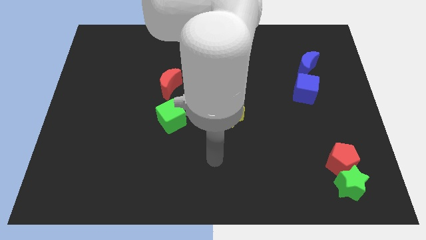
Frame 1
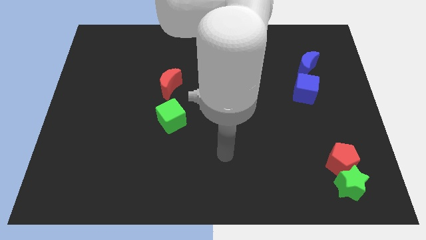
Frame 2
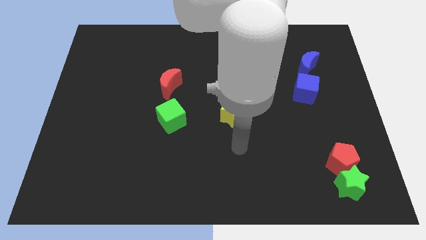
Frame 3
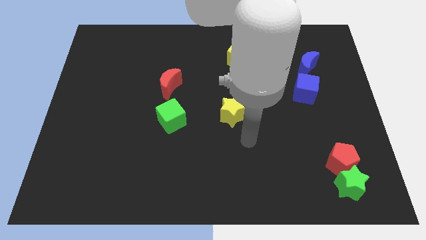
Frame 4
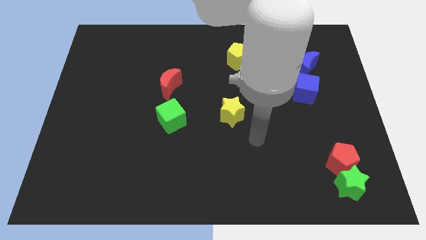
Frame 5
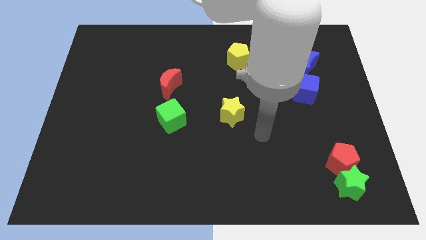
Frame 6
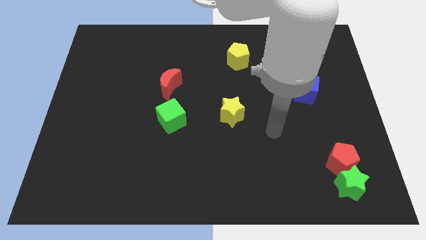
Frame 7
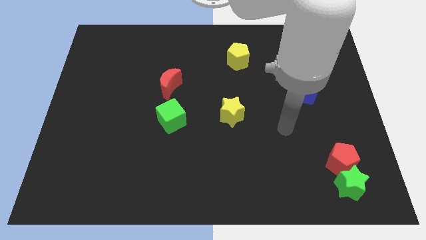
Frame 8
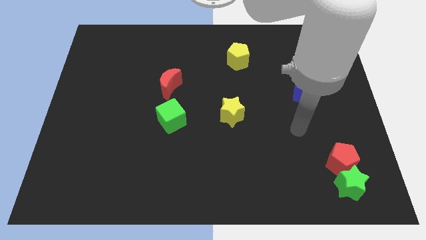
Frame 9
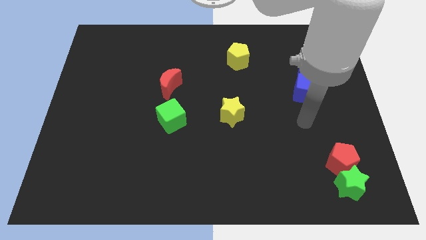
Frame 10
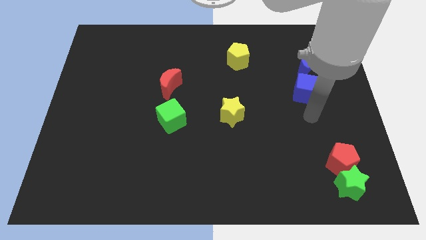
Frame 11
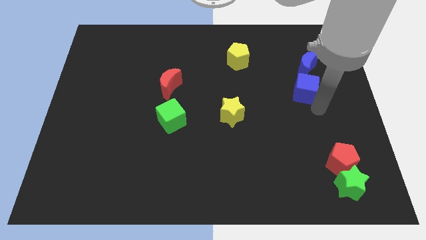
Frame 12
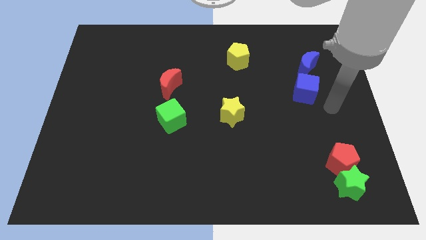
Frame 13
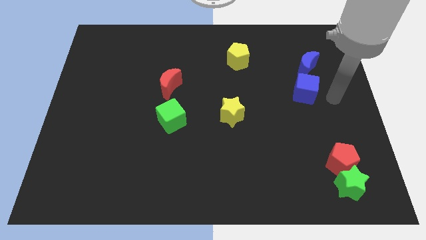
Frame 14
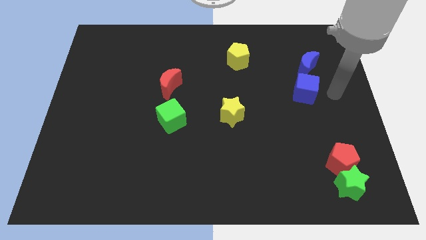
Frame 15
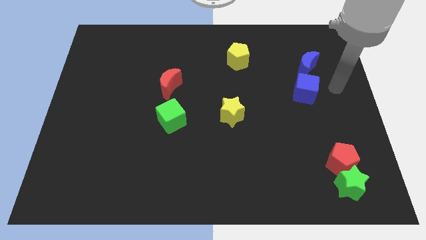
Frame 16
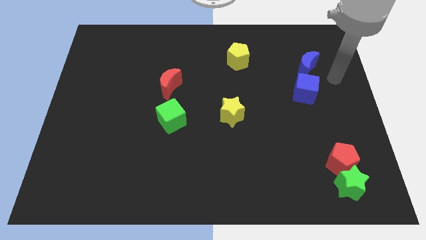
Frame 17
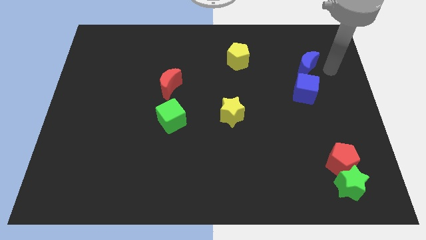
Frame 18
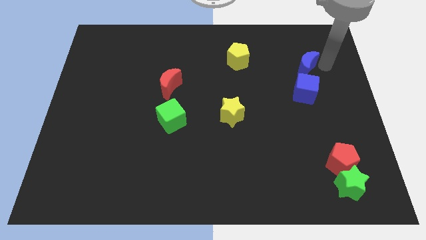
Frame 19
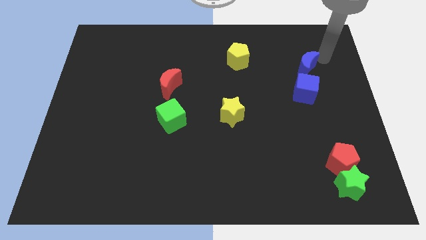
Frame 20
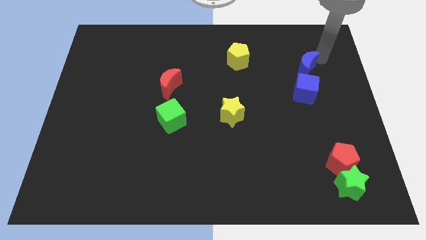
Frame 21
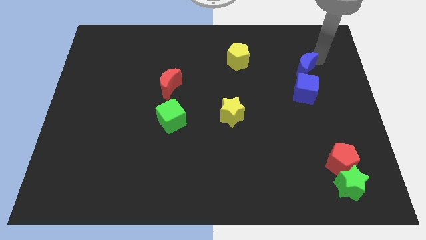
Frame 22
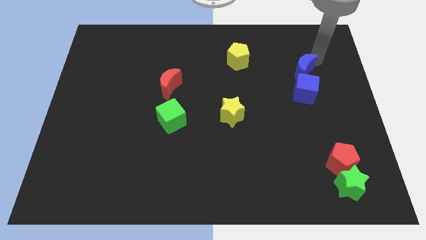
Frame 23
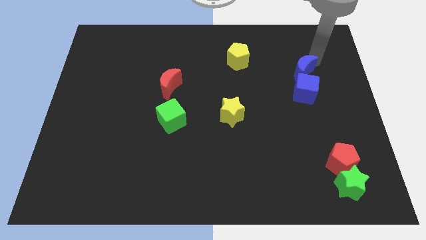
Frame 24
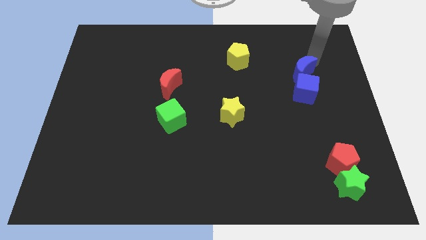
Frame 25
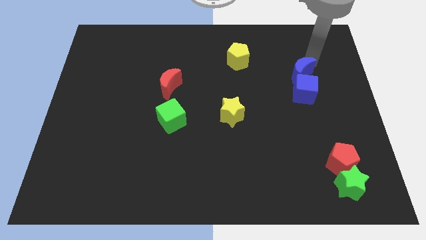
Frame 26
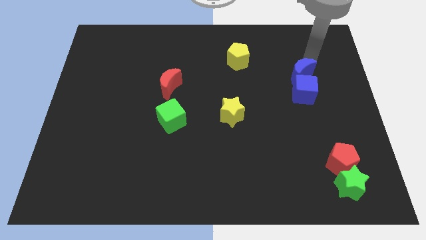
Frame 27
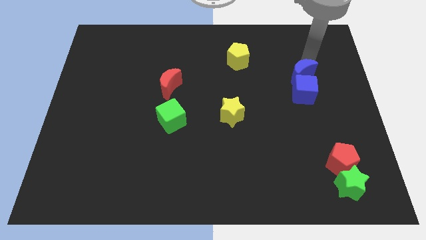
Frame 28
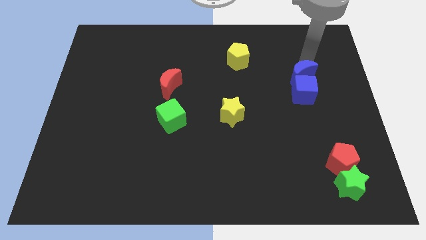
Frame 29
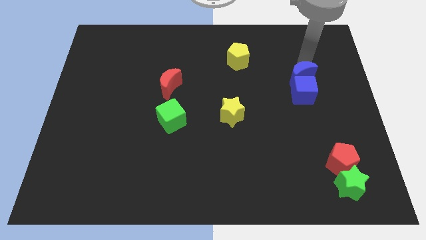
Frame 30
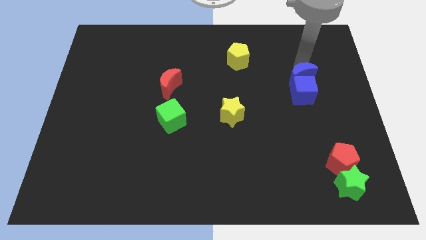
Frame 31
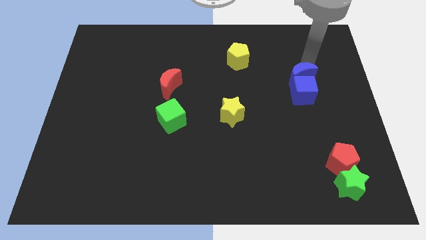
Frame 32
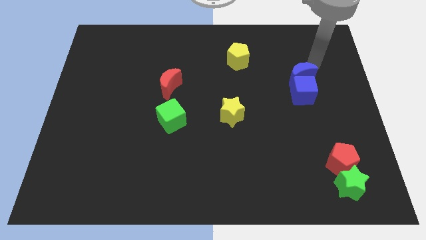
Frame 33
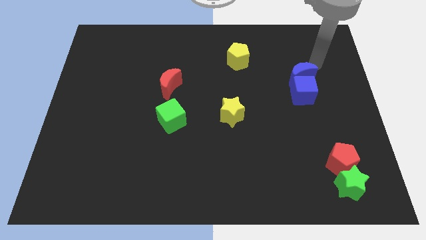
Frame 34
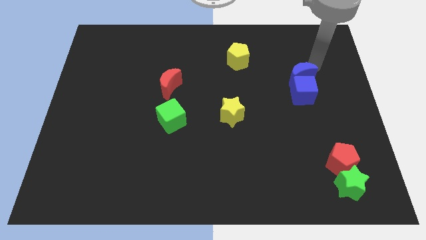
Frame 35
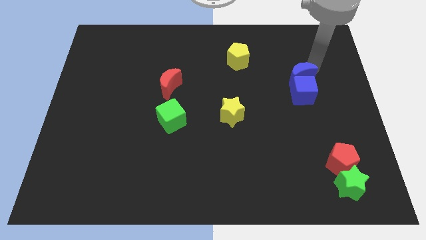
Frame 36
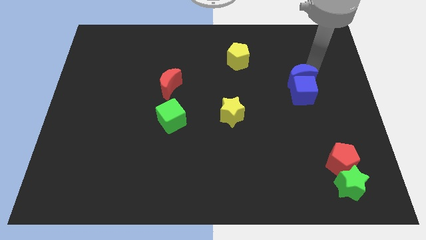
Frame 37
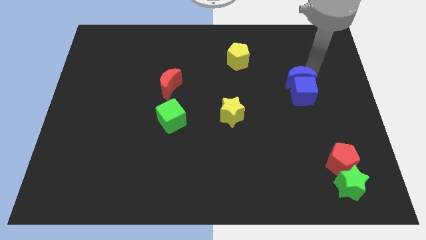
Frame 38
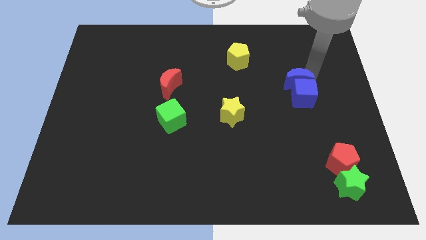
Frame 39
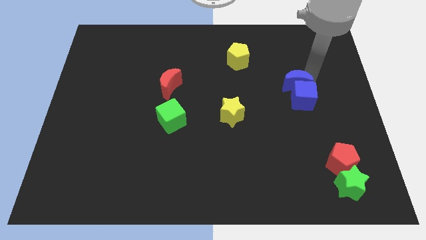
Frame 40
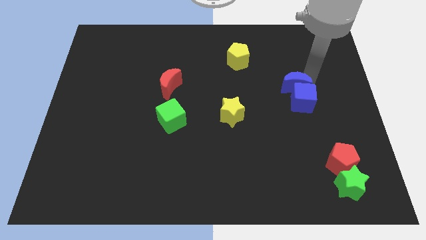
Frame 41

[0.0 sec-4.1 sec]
slightly move the blue moon down and to the left

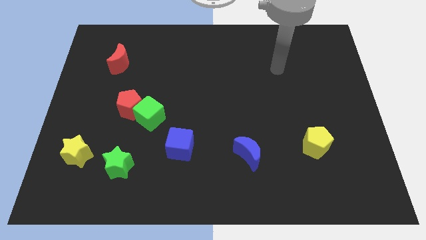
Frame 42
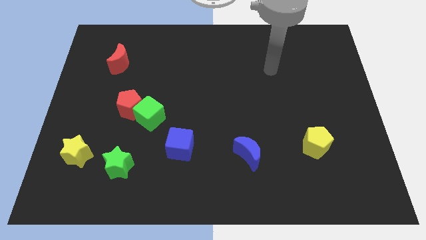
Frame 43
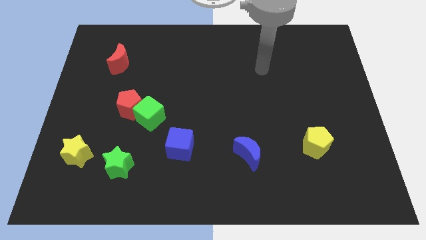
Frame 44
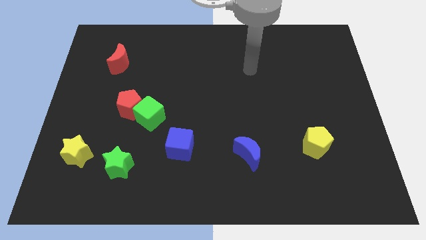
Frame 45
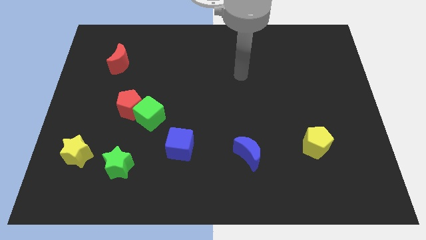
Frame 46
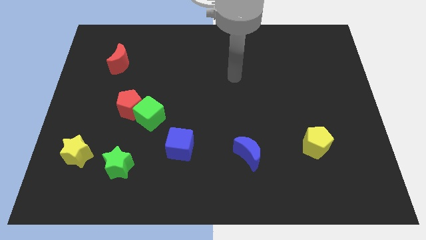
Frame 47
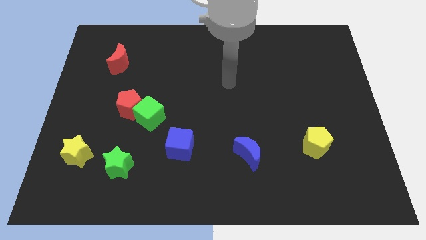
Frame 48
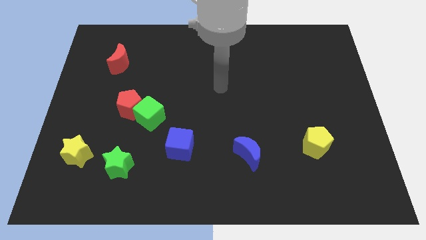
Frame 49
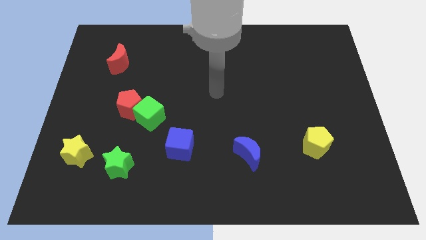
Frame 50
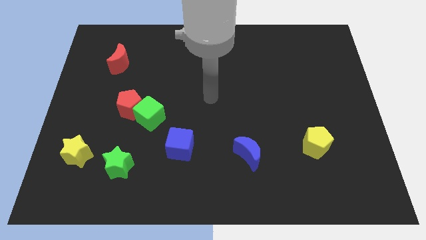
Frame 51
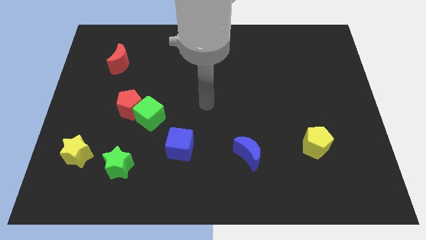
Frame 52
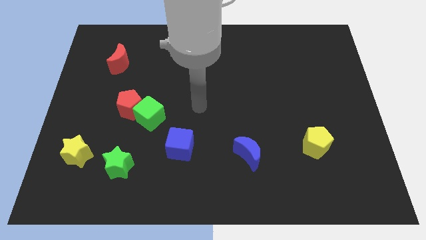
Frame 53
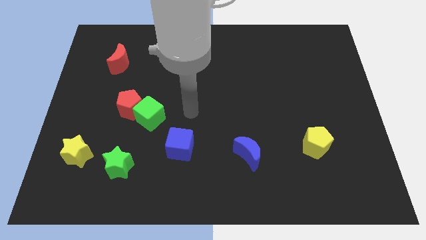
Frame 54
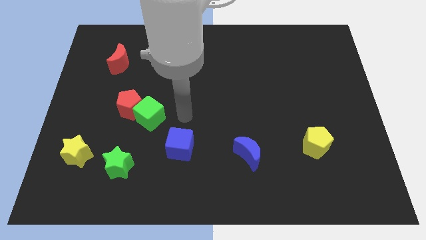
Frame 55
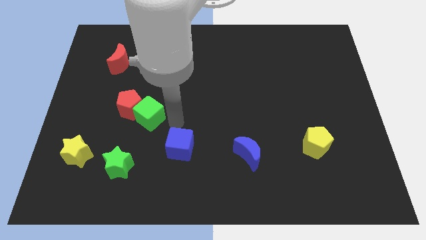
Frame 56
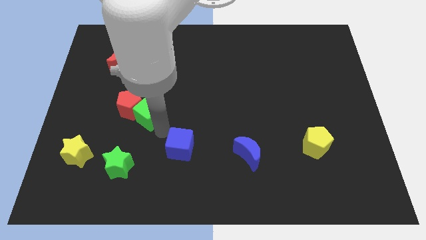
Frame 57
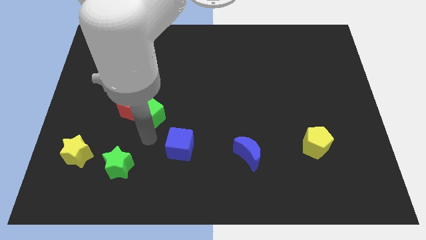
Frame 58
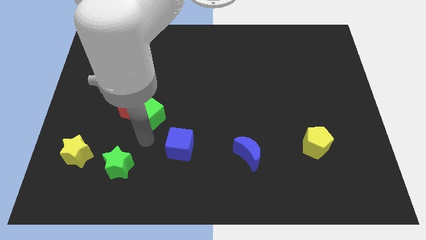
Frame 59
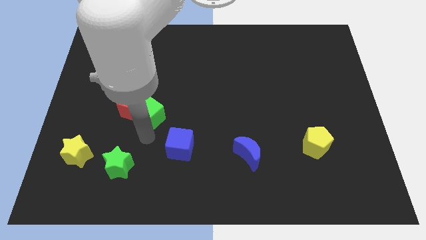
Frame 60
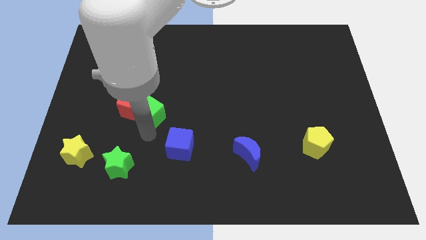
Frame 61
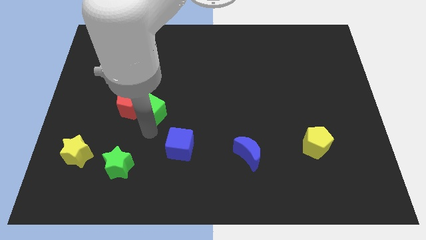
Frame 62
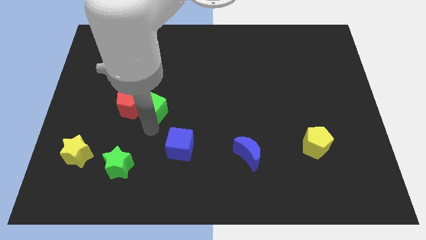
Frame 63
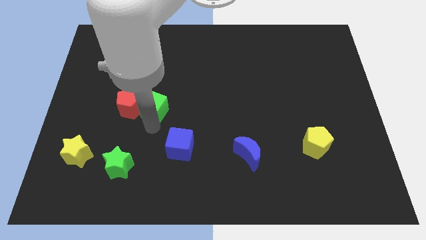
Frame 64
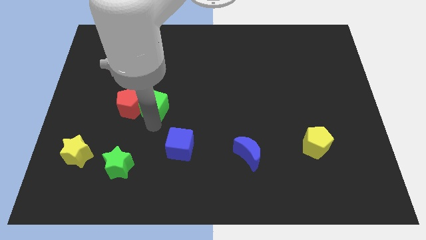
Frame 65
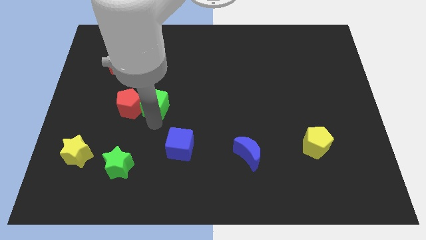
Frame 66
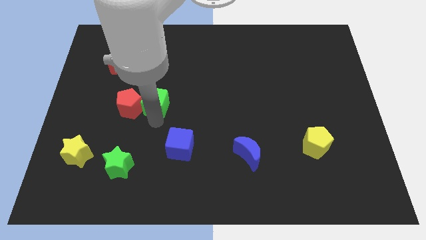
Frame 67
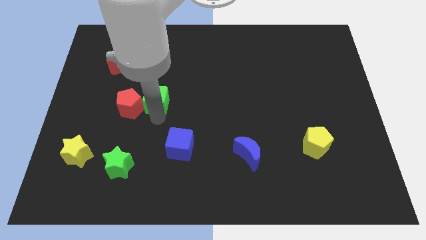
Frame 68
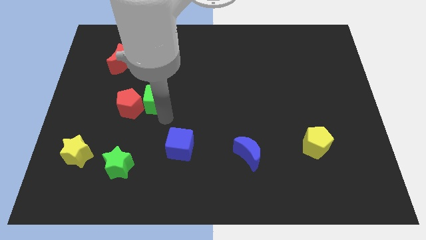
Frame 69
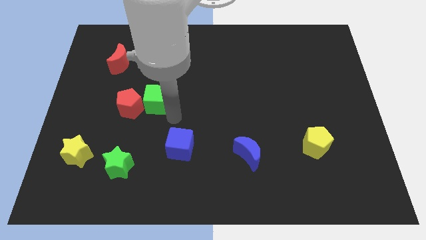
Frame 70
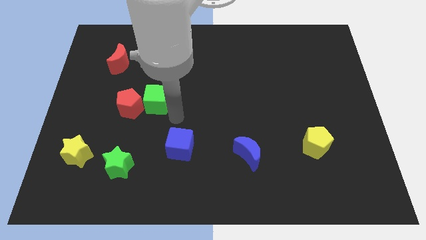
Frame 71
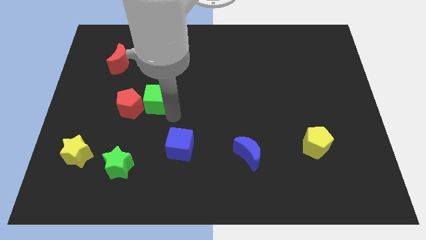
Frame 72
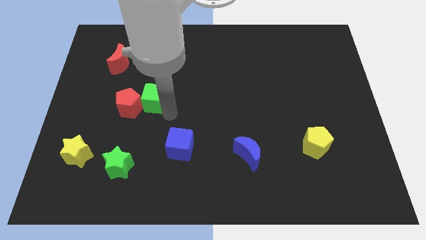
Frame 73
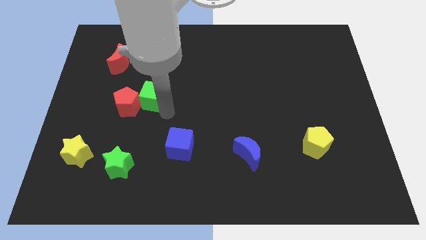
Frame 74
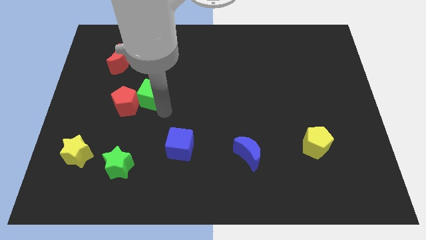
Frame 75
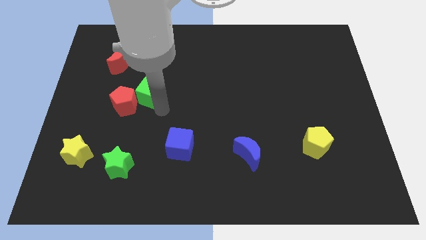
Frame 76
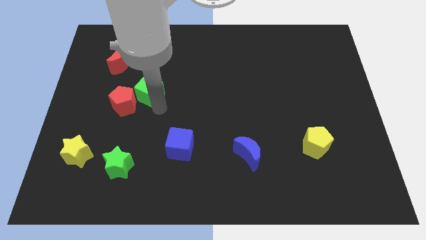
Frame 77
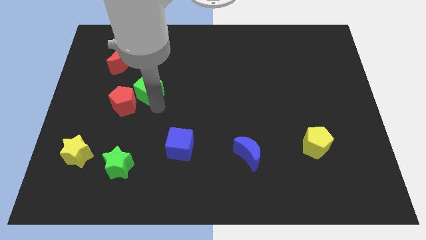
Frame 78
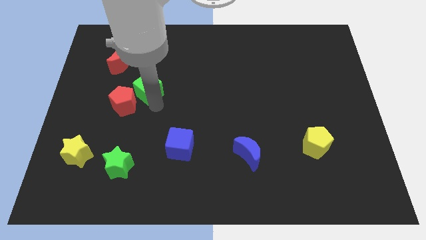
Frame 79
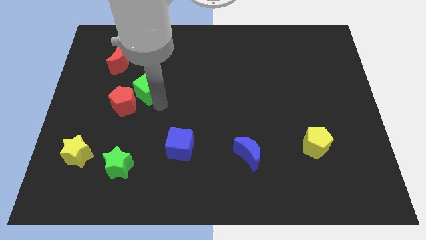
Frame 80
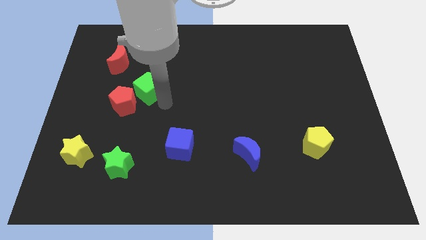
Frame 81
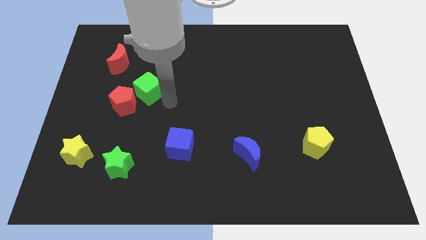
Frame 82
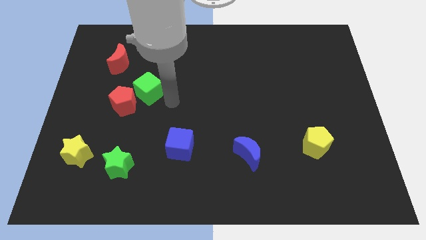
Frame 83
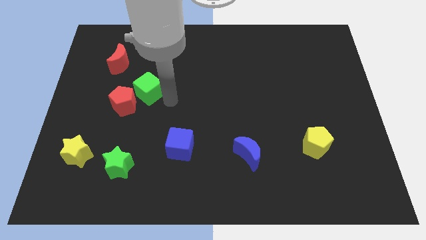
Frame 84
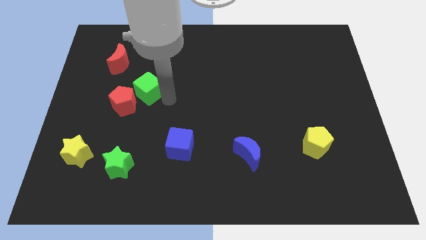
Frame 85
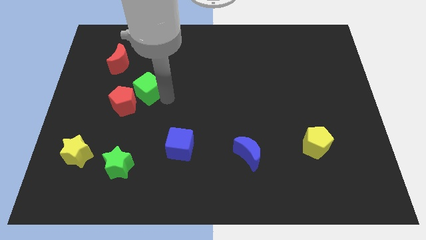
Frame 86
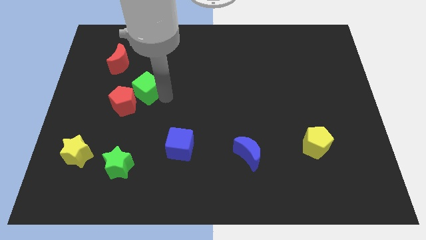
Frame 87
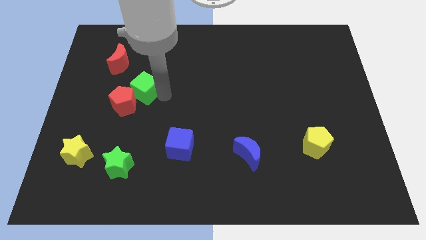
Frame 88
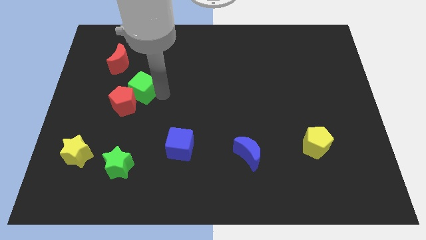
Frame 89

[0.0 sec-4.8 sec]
slightly slide the green cube upwards and to the left diagonally
